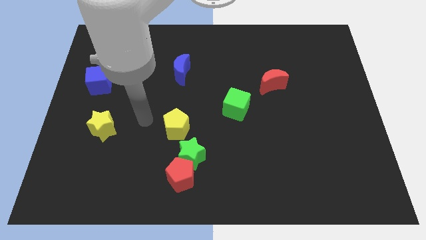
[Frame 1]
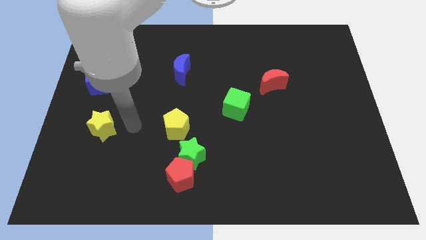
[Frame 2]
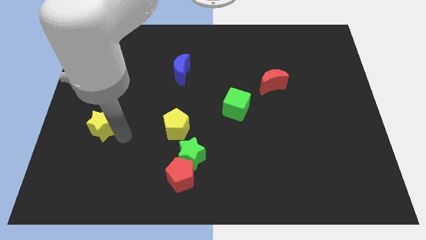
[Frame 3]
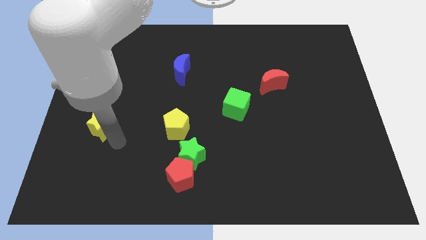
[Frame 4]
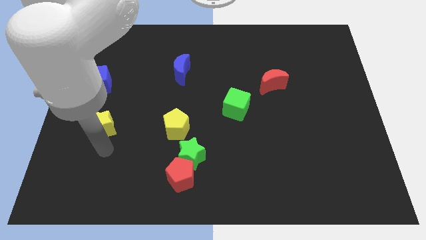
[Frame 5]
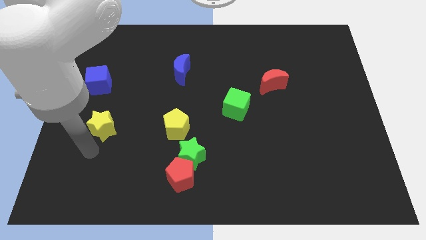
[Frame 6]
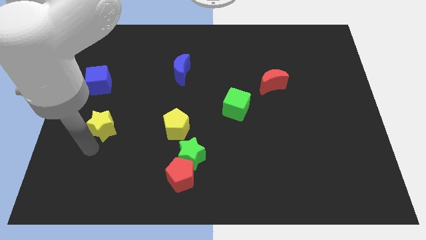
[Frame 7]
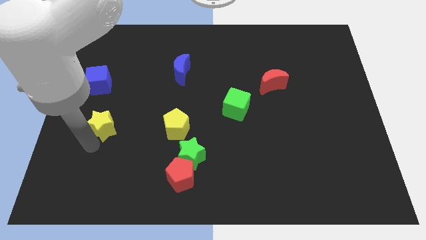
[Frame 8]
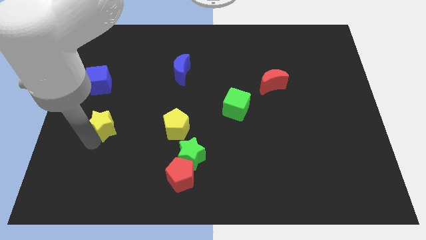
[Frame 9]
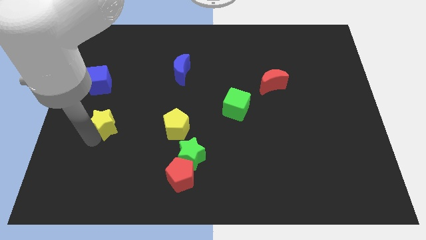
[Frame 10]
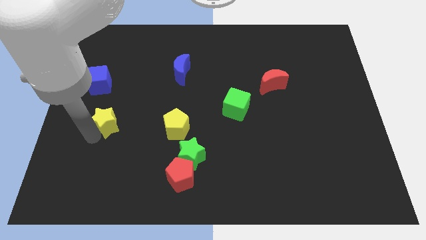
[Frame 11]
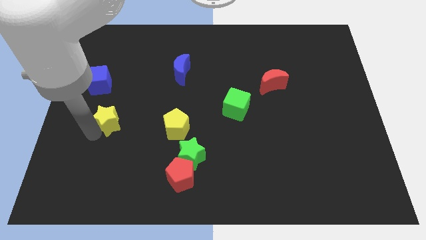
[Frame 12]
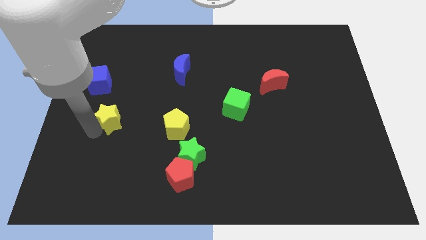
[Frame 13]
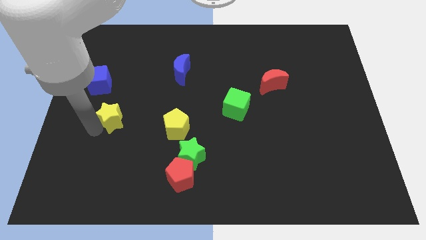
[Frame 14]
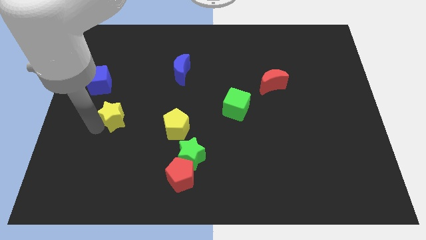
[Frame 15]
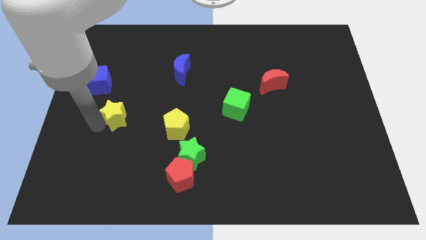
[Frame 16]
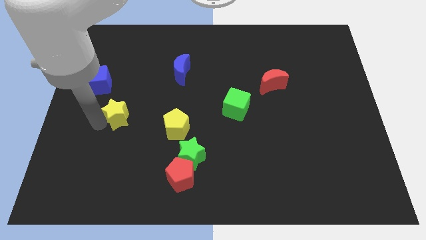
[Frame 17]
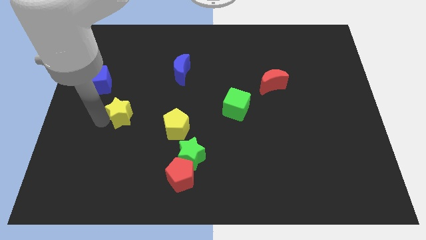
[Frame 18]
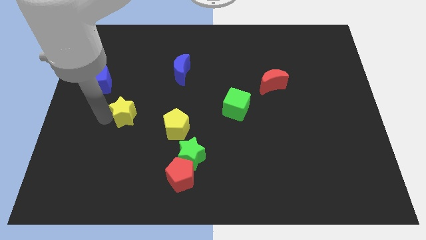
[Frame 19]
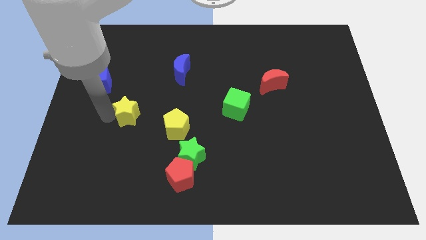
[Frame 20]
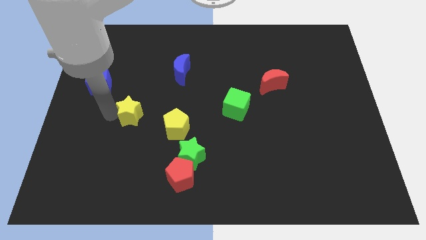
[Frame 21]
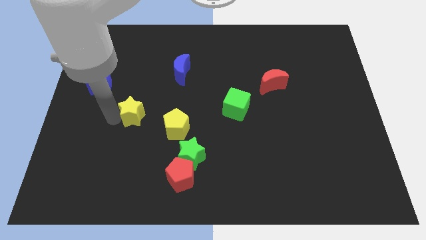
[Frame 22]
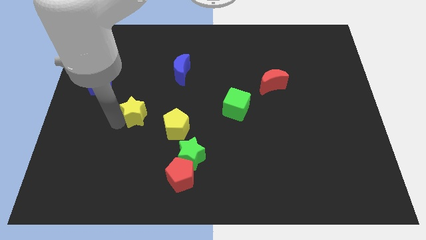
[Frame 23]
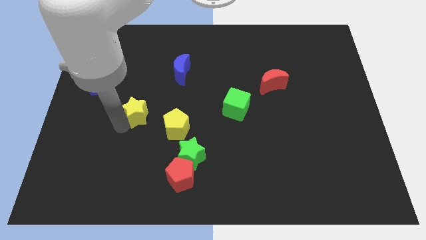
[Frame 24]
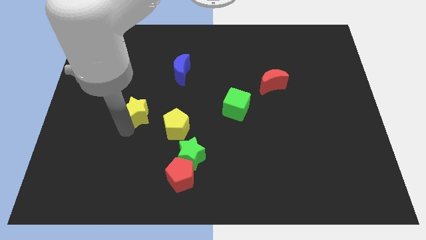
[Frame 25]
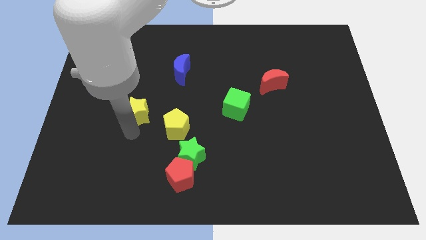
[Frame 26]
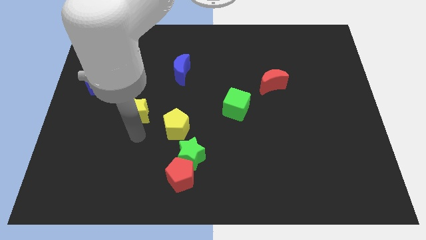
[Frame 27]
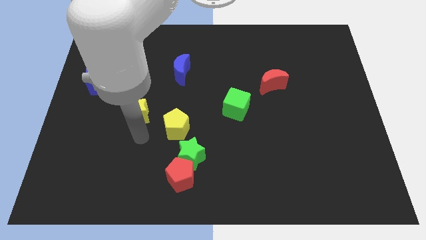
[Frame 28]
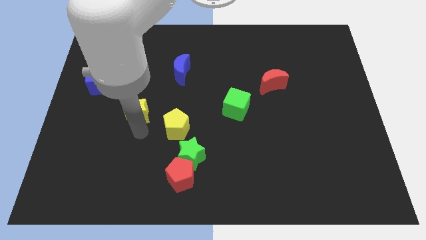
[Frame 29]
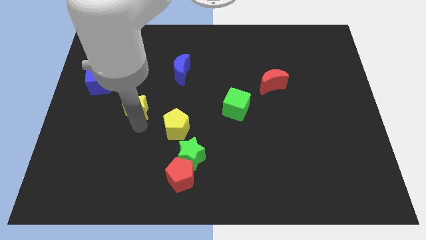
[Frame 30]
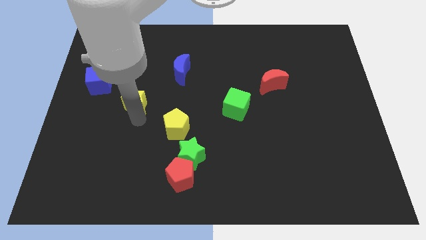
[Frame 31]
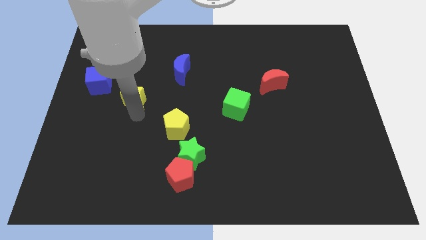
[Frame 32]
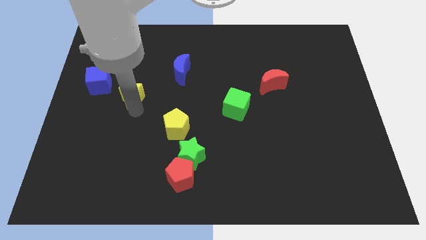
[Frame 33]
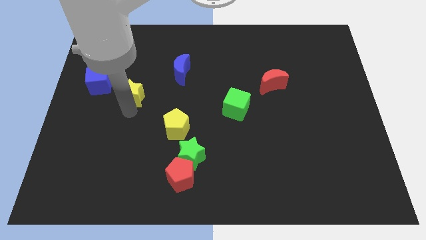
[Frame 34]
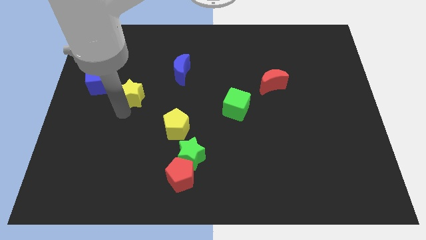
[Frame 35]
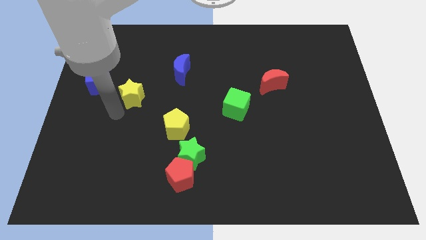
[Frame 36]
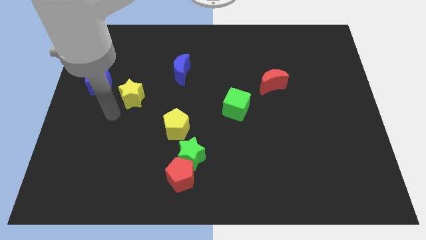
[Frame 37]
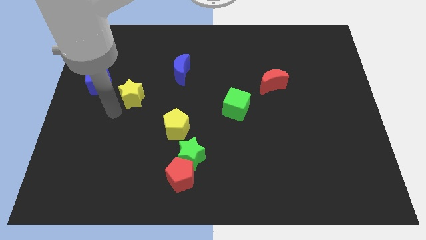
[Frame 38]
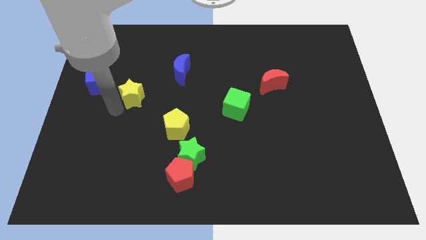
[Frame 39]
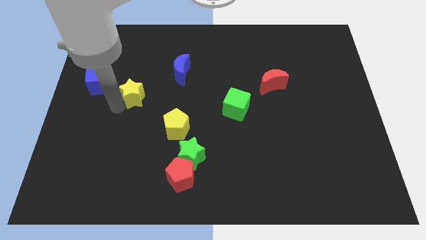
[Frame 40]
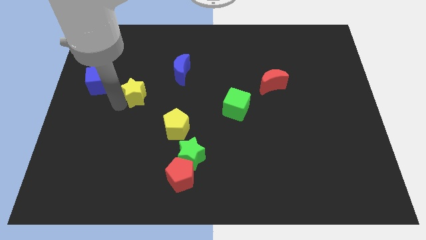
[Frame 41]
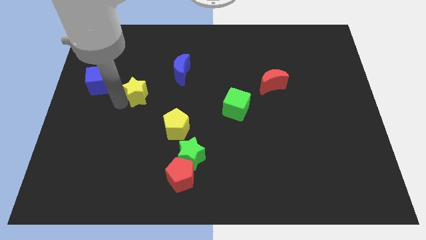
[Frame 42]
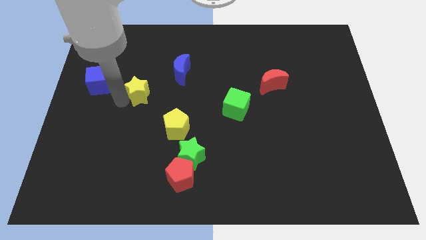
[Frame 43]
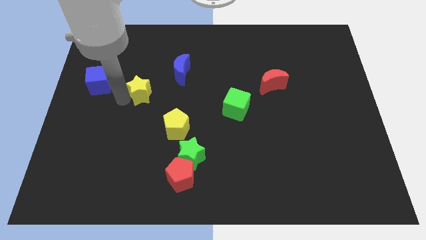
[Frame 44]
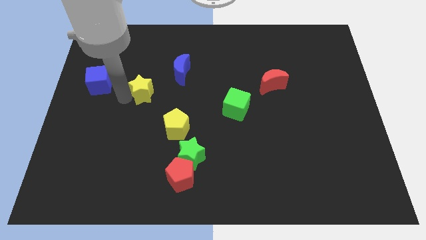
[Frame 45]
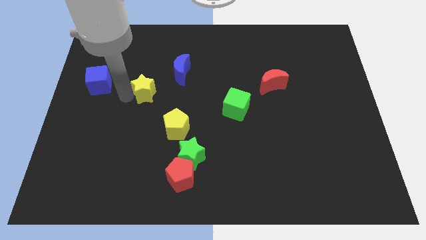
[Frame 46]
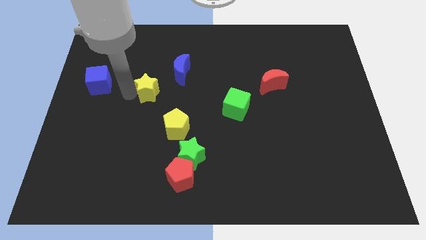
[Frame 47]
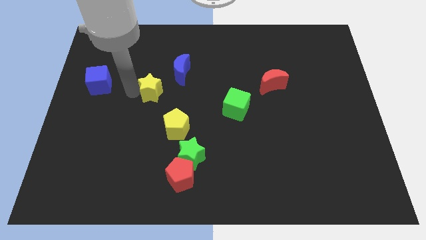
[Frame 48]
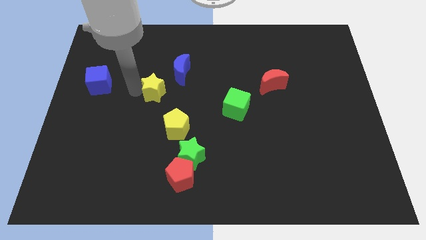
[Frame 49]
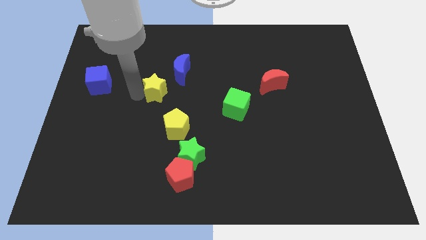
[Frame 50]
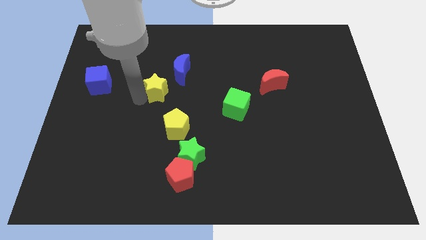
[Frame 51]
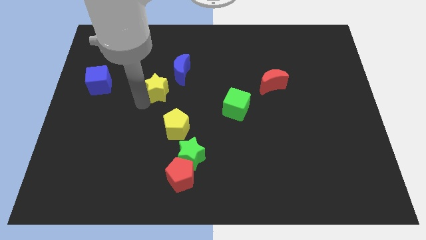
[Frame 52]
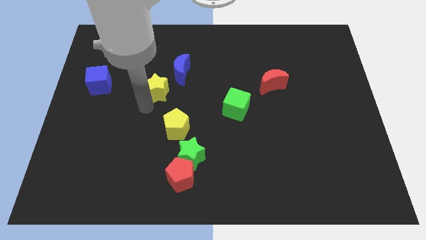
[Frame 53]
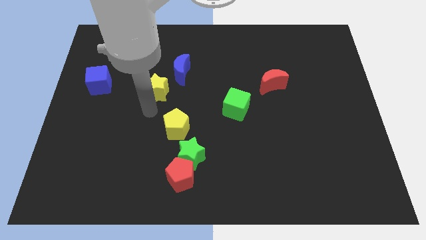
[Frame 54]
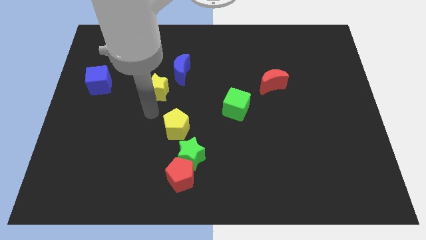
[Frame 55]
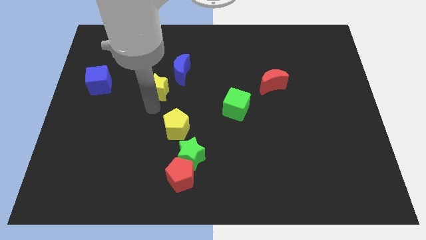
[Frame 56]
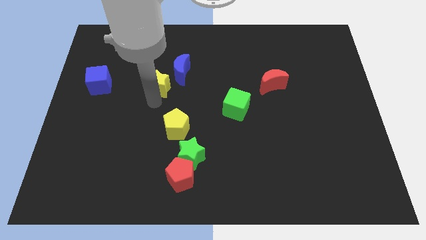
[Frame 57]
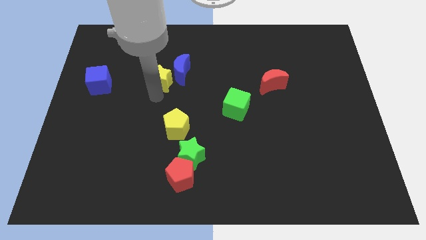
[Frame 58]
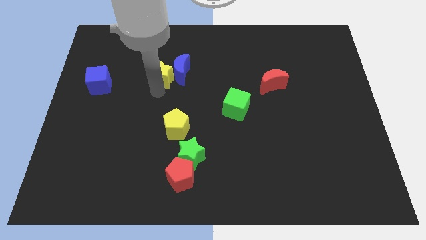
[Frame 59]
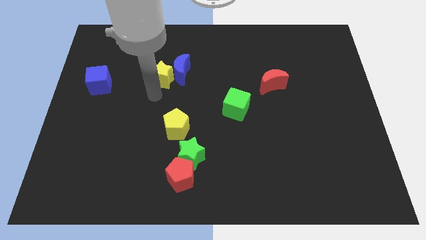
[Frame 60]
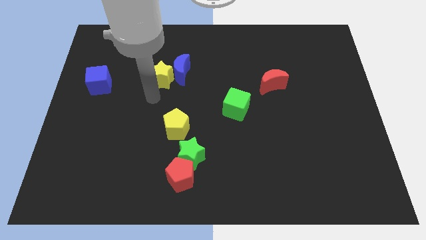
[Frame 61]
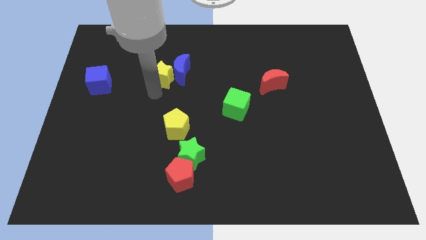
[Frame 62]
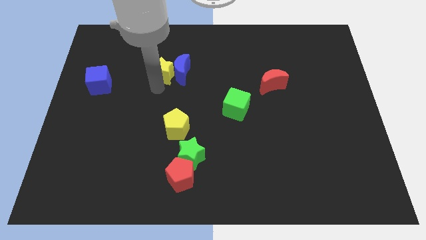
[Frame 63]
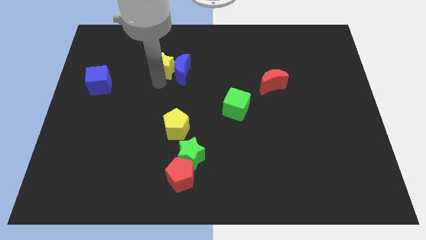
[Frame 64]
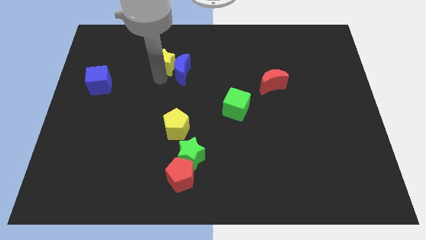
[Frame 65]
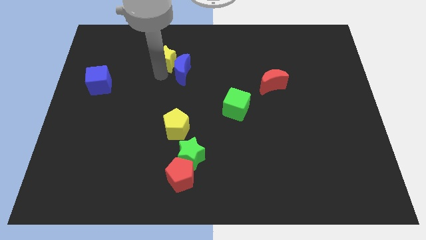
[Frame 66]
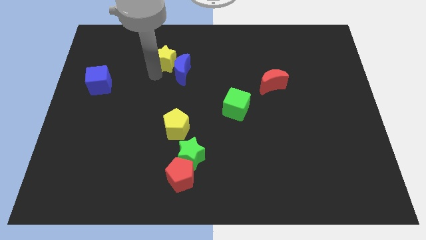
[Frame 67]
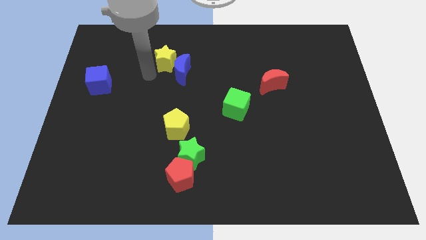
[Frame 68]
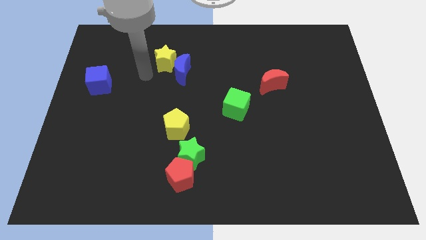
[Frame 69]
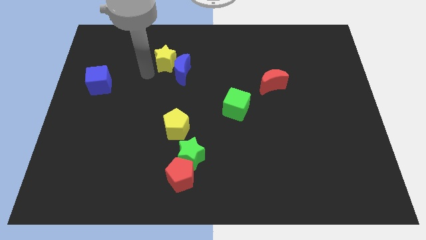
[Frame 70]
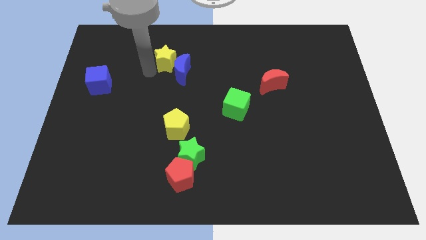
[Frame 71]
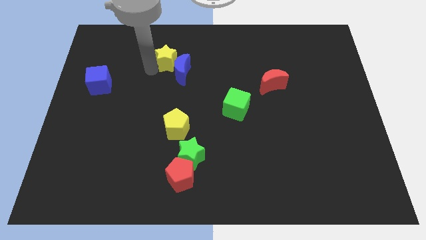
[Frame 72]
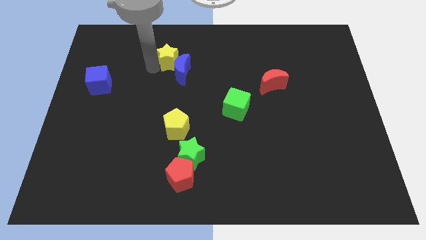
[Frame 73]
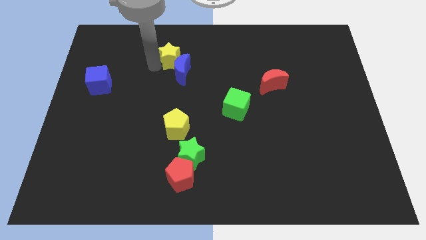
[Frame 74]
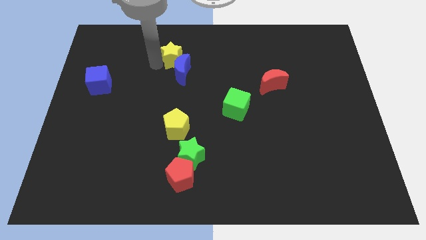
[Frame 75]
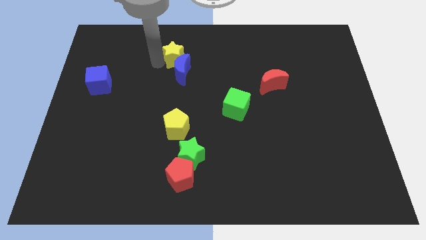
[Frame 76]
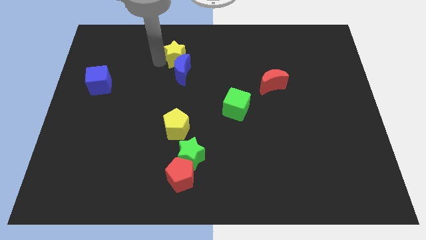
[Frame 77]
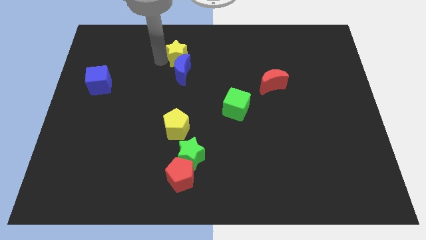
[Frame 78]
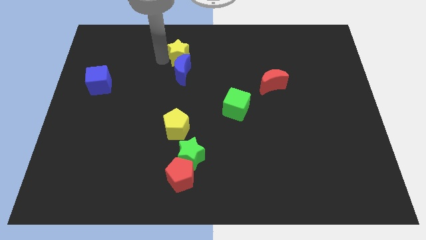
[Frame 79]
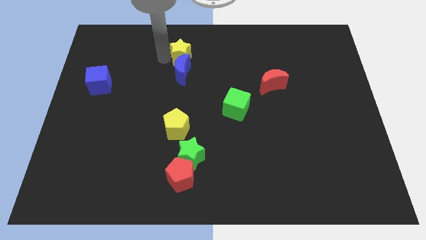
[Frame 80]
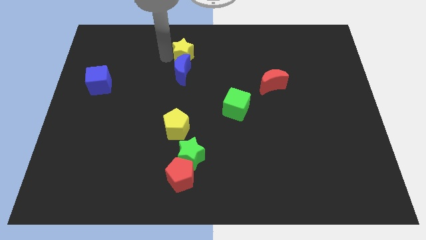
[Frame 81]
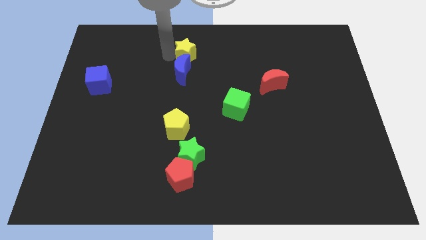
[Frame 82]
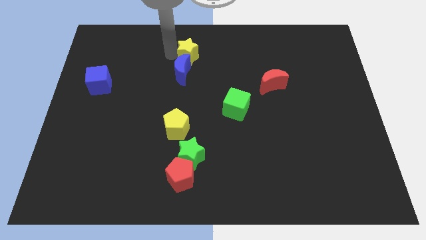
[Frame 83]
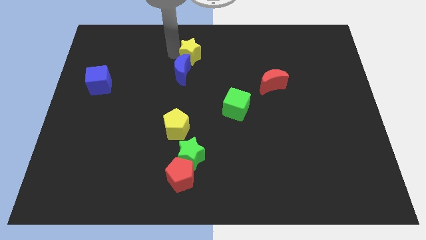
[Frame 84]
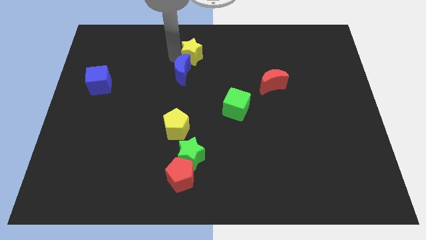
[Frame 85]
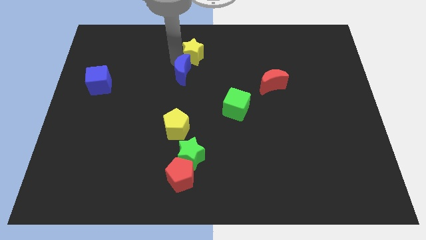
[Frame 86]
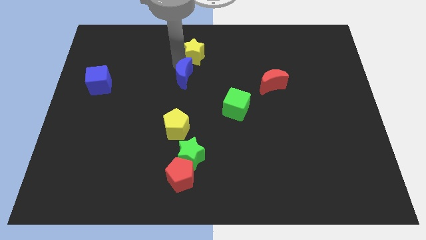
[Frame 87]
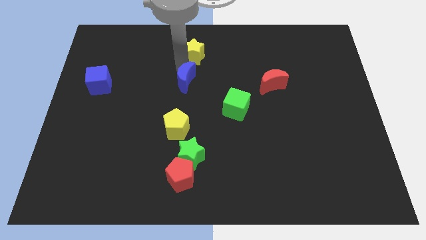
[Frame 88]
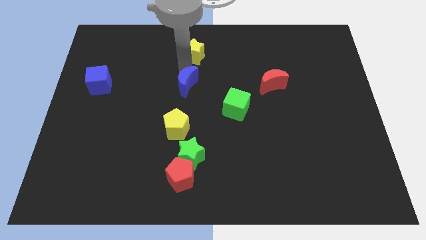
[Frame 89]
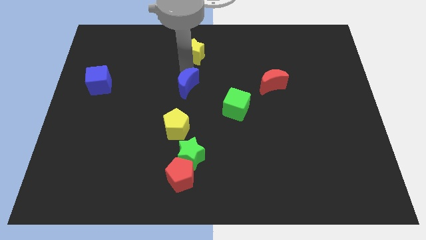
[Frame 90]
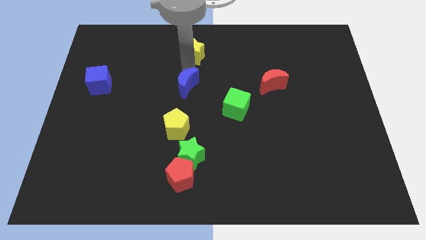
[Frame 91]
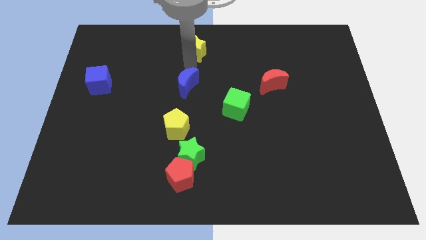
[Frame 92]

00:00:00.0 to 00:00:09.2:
put the yellow star to the top side
